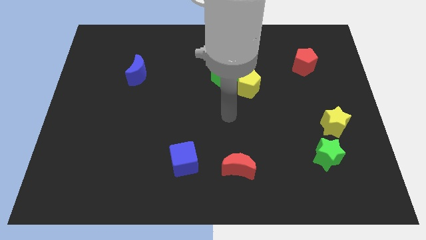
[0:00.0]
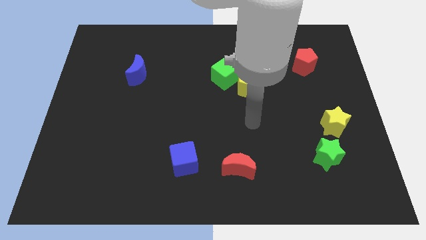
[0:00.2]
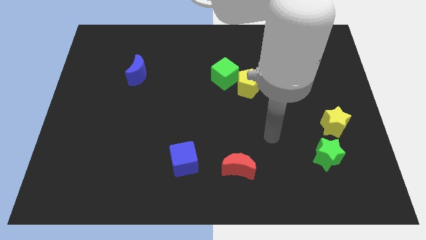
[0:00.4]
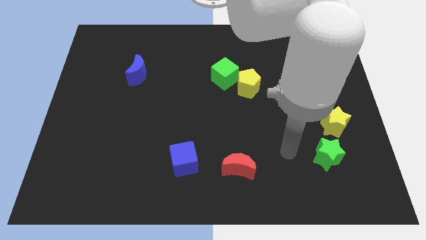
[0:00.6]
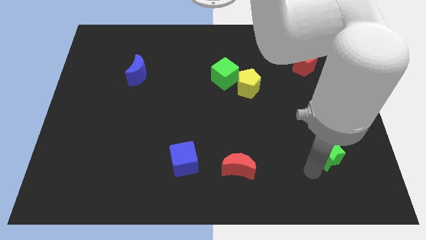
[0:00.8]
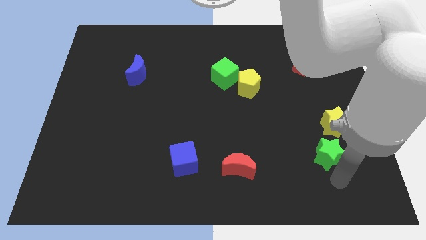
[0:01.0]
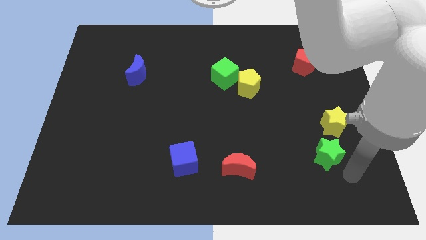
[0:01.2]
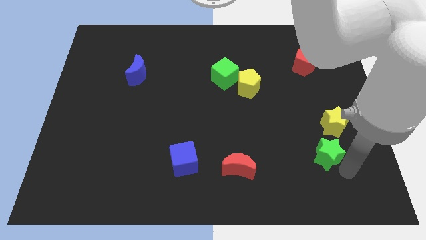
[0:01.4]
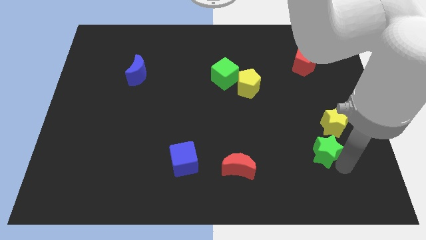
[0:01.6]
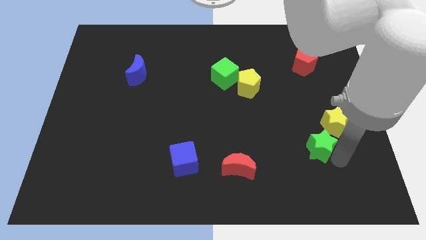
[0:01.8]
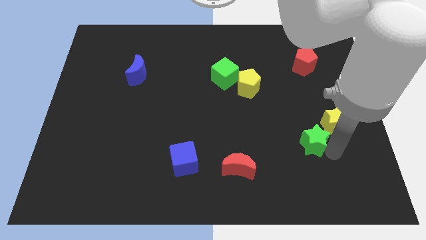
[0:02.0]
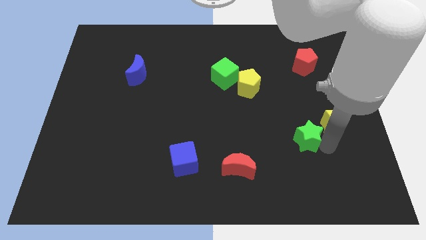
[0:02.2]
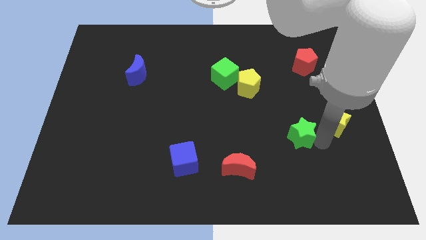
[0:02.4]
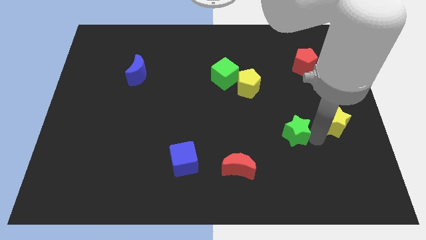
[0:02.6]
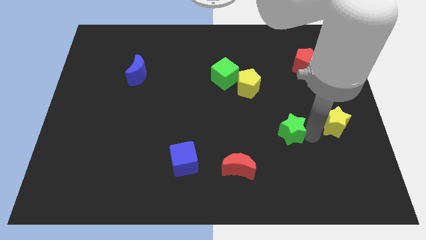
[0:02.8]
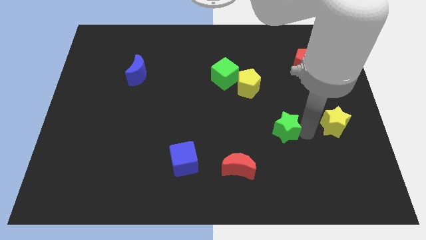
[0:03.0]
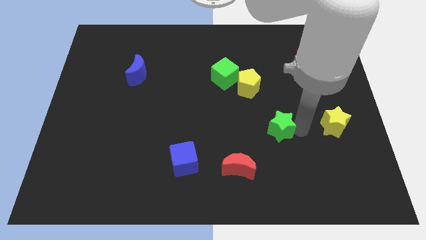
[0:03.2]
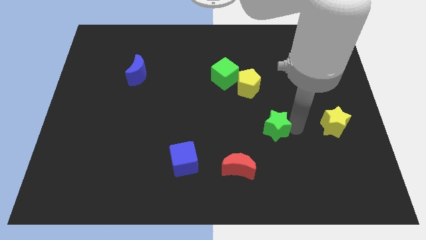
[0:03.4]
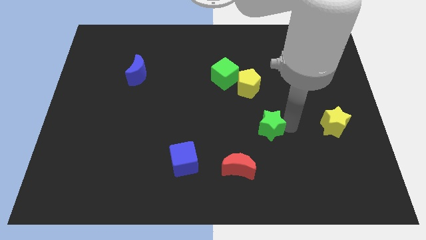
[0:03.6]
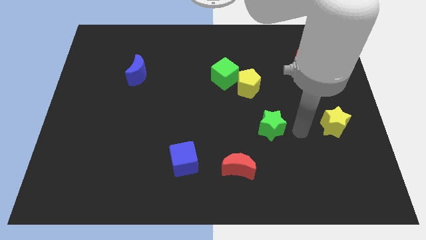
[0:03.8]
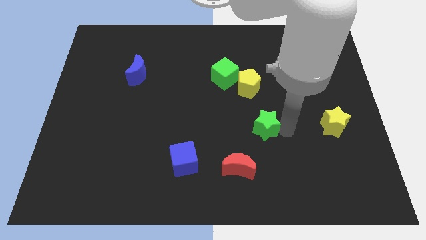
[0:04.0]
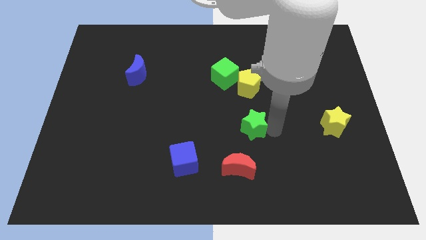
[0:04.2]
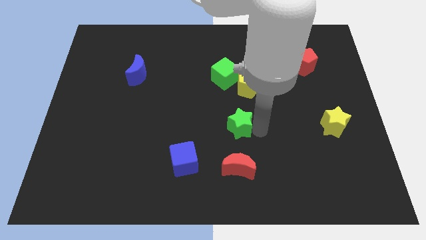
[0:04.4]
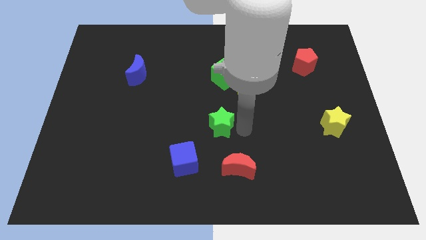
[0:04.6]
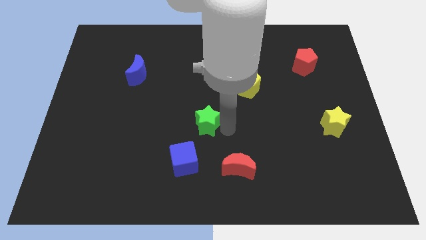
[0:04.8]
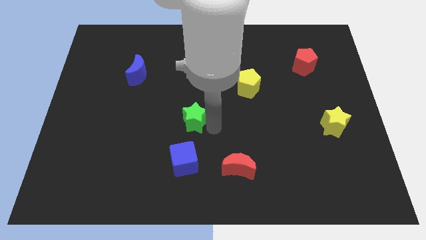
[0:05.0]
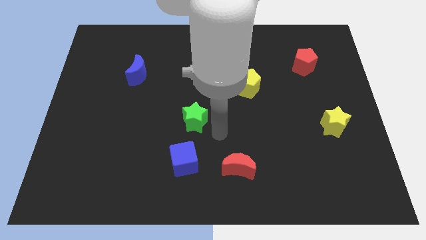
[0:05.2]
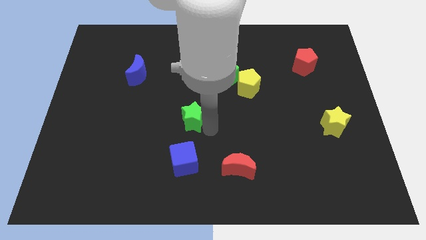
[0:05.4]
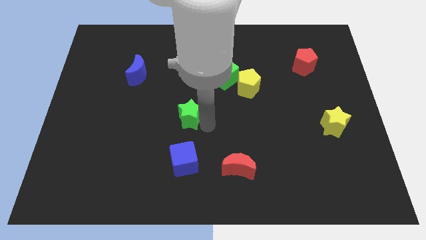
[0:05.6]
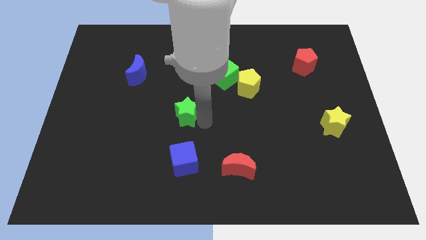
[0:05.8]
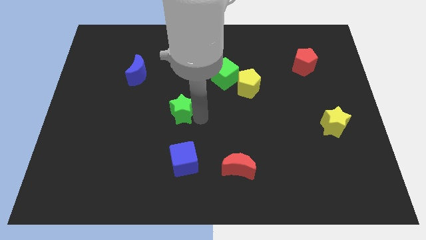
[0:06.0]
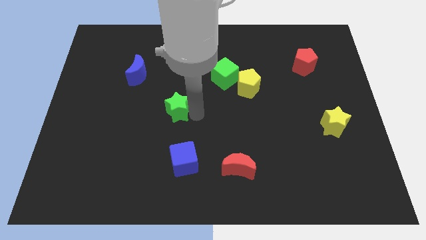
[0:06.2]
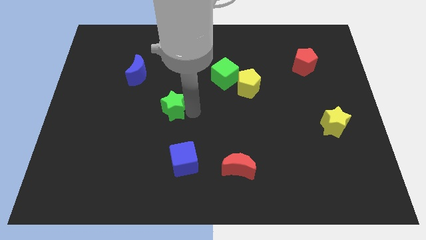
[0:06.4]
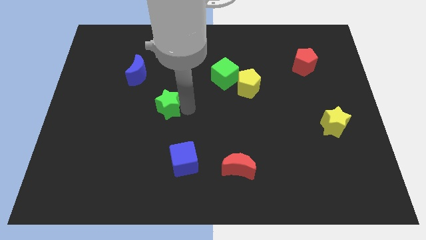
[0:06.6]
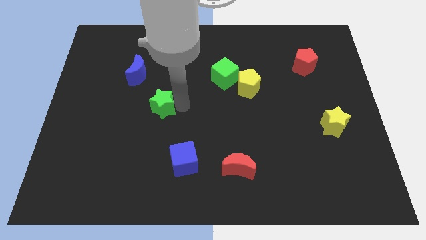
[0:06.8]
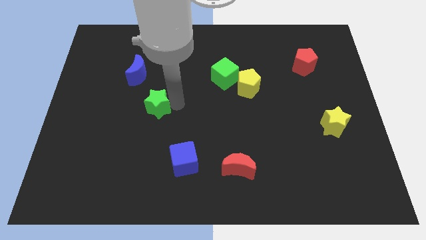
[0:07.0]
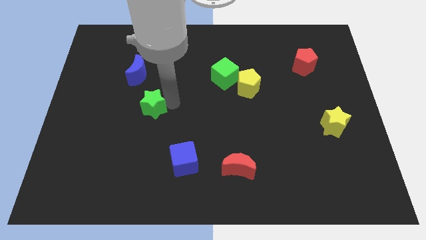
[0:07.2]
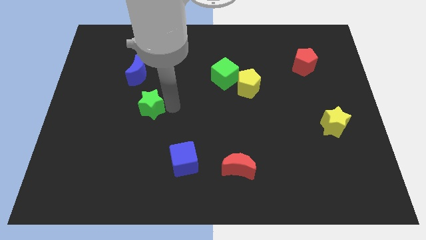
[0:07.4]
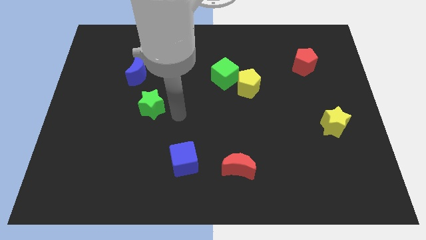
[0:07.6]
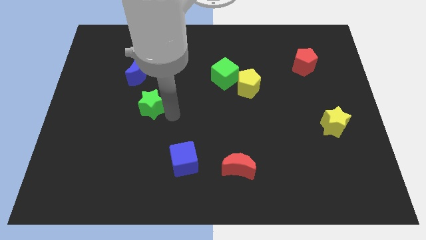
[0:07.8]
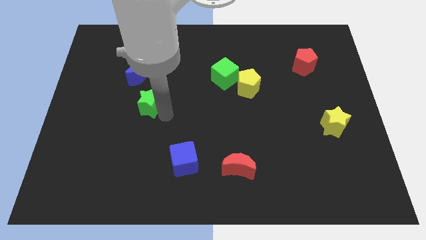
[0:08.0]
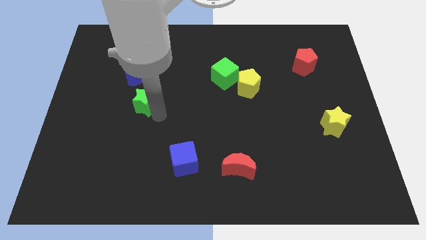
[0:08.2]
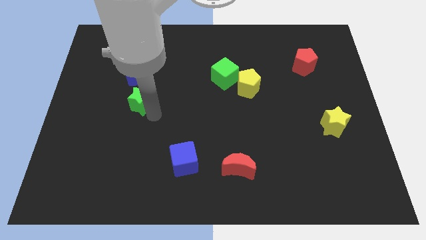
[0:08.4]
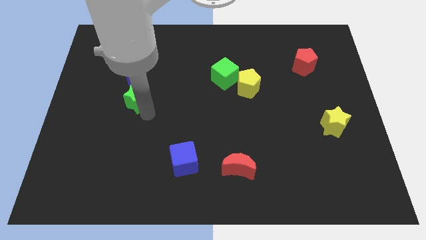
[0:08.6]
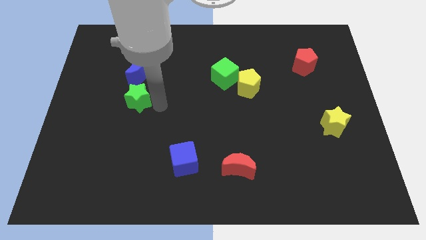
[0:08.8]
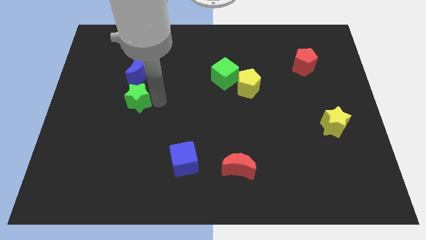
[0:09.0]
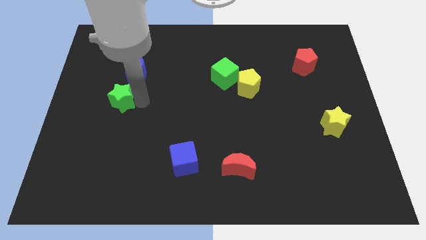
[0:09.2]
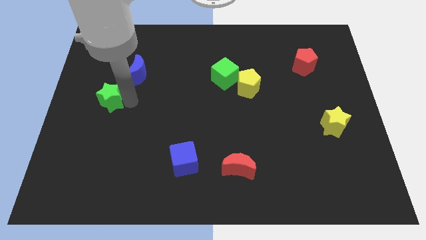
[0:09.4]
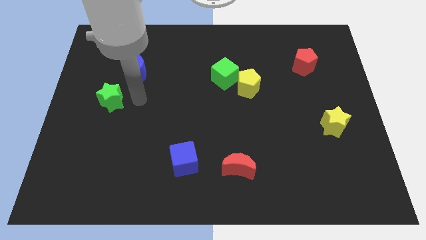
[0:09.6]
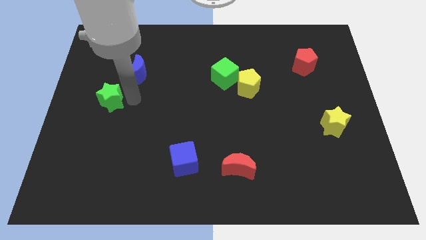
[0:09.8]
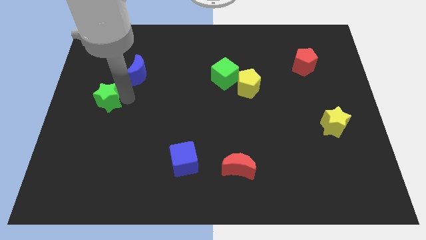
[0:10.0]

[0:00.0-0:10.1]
move the green star to the left side of the board
